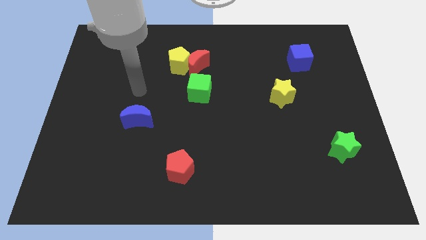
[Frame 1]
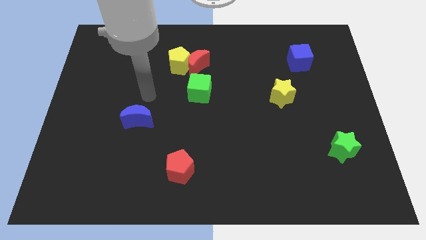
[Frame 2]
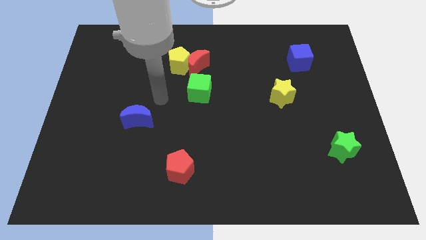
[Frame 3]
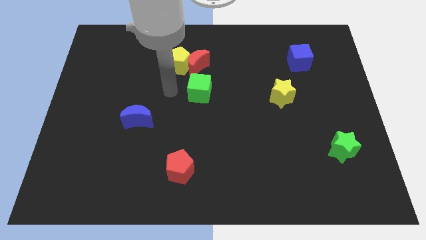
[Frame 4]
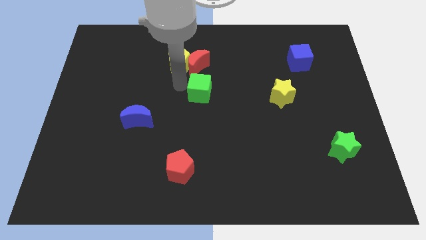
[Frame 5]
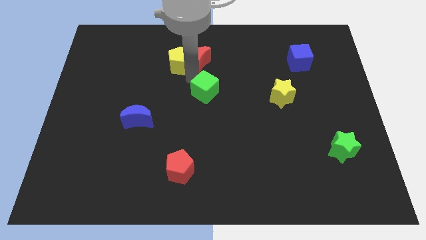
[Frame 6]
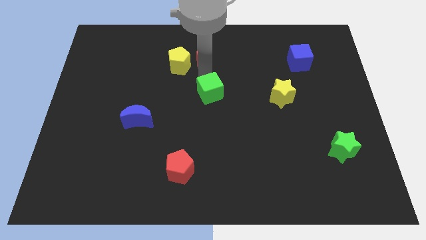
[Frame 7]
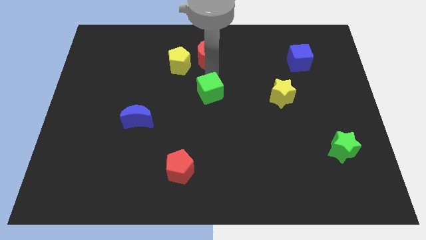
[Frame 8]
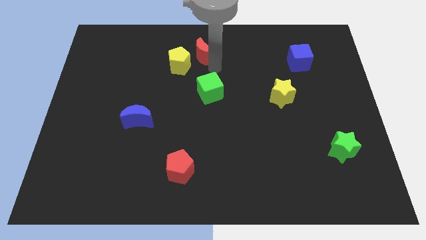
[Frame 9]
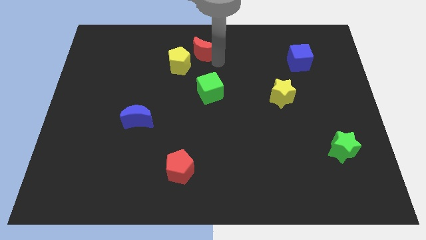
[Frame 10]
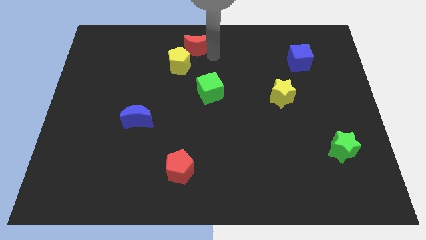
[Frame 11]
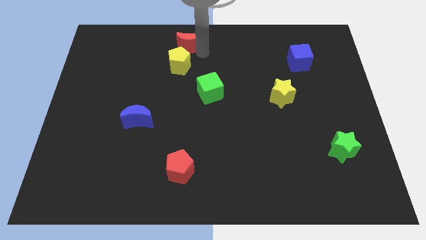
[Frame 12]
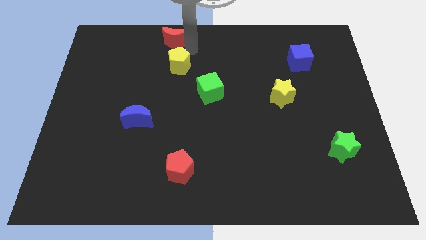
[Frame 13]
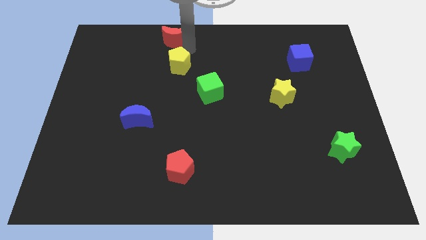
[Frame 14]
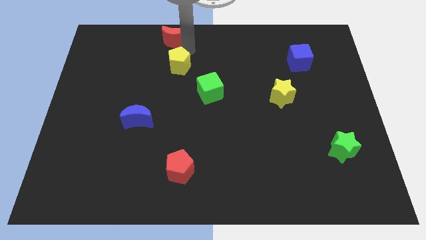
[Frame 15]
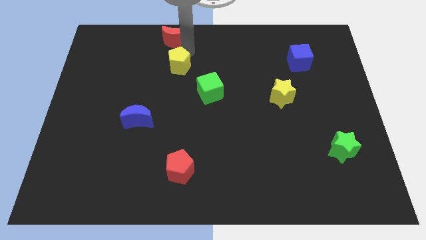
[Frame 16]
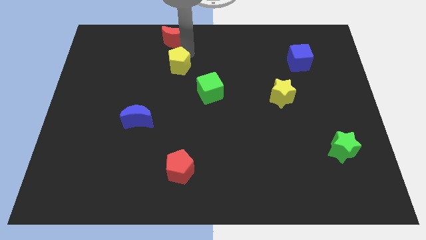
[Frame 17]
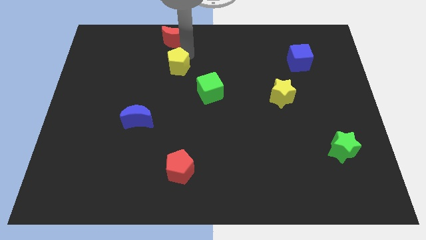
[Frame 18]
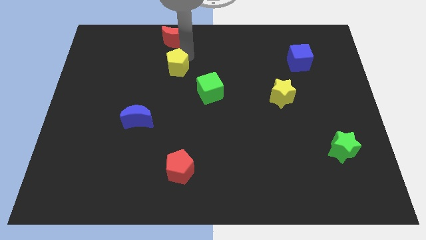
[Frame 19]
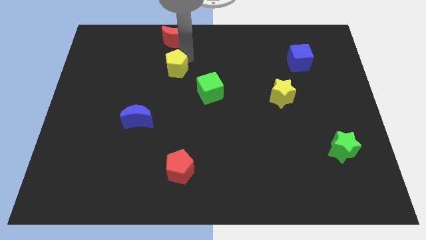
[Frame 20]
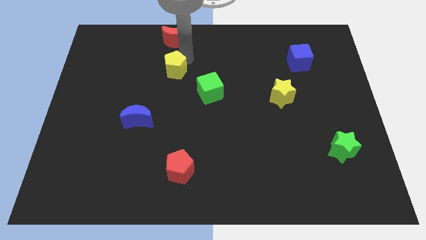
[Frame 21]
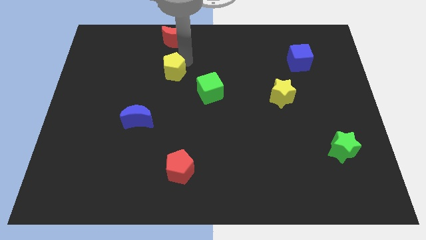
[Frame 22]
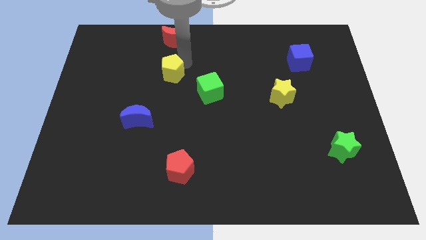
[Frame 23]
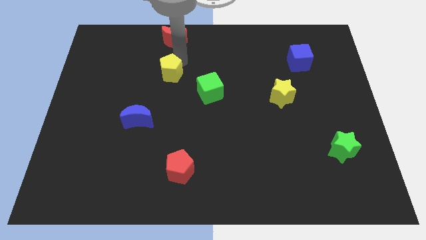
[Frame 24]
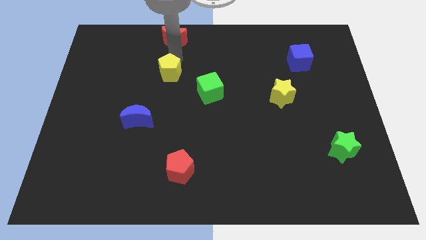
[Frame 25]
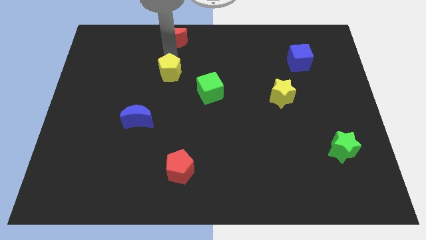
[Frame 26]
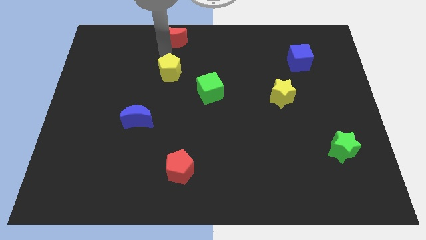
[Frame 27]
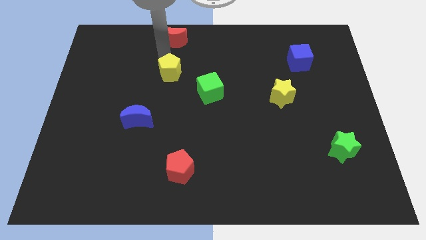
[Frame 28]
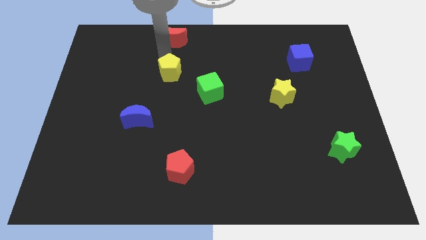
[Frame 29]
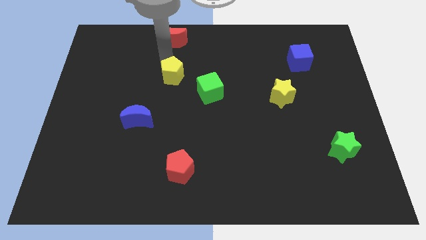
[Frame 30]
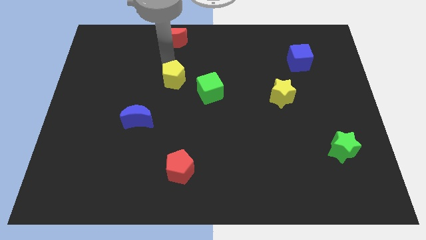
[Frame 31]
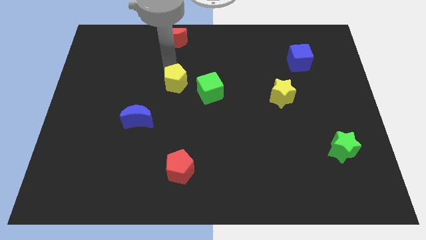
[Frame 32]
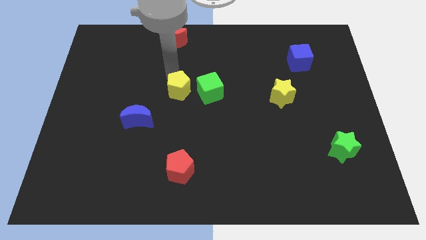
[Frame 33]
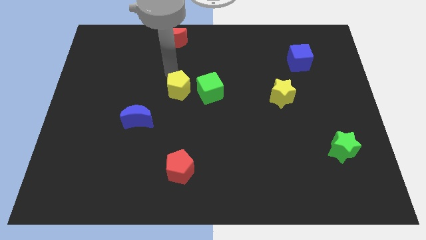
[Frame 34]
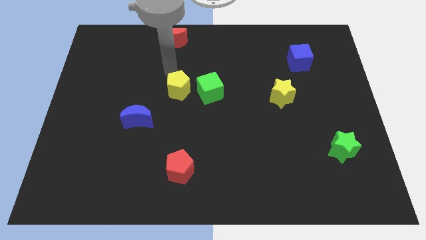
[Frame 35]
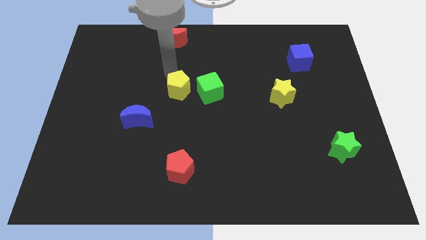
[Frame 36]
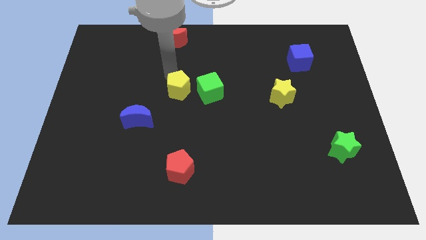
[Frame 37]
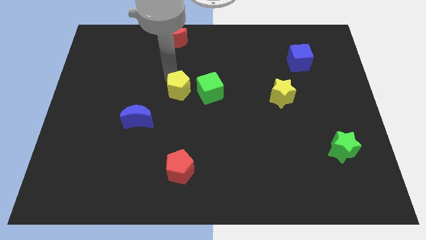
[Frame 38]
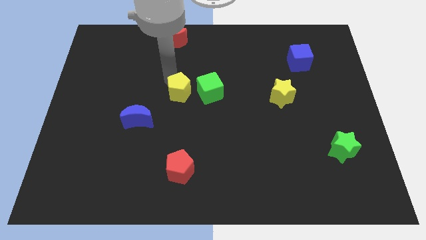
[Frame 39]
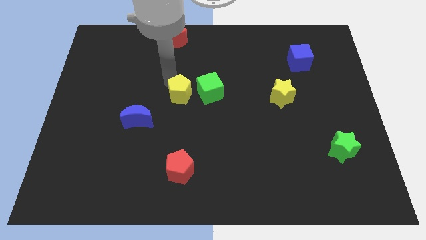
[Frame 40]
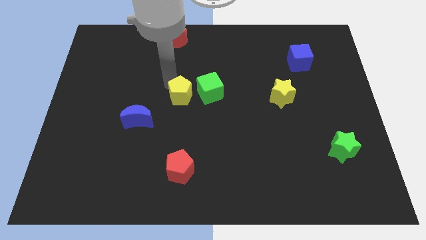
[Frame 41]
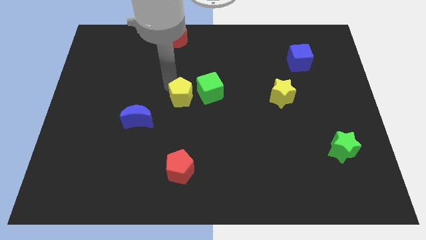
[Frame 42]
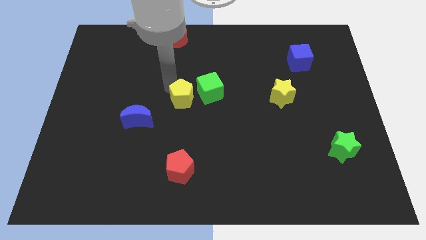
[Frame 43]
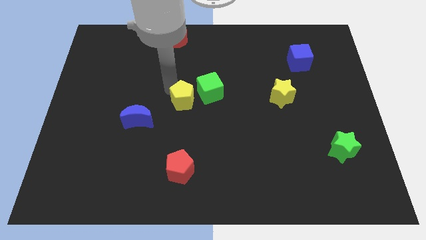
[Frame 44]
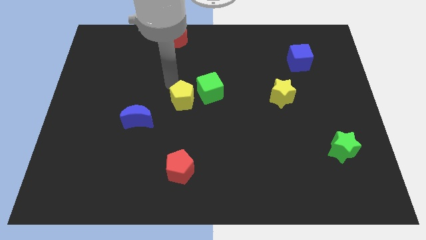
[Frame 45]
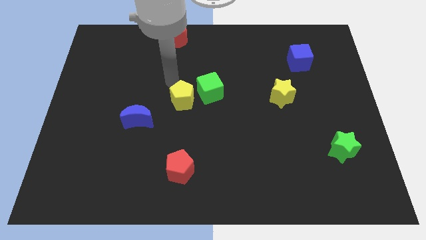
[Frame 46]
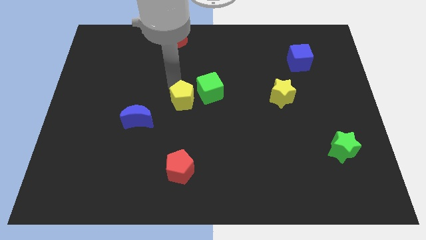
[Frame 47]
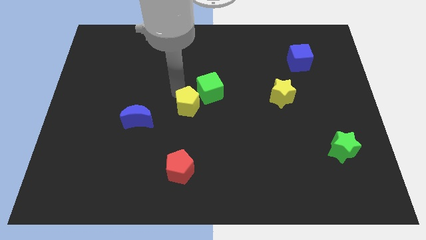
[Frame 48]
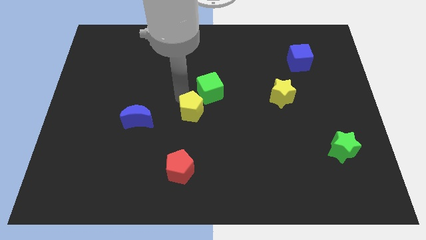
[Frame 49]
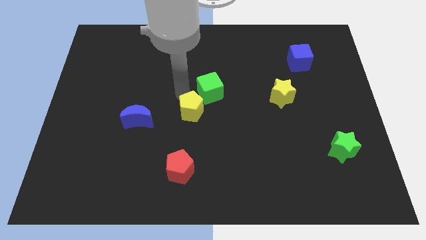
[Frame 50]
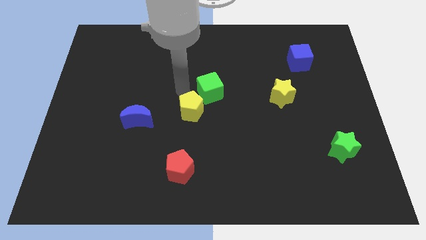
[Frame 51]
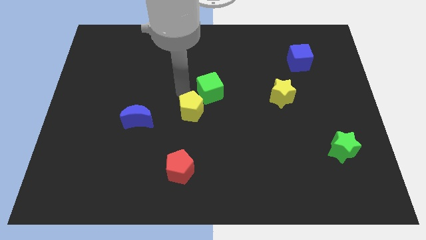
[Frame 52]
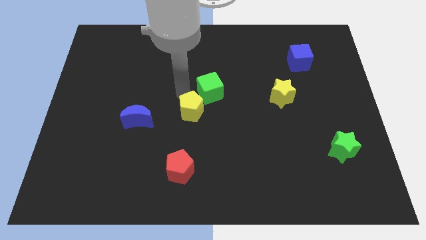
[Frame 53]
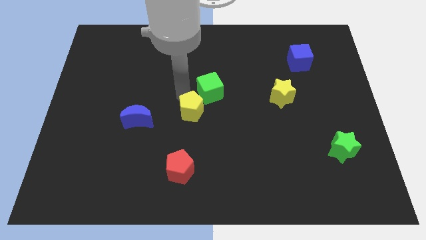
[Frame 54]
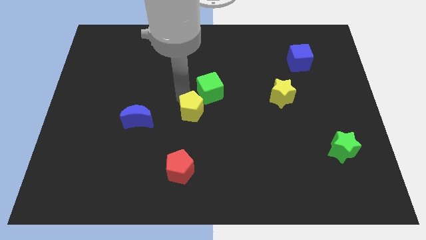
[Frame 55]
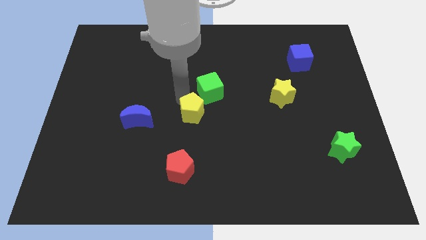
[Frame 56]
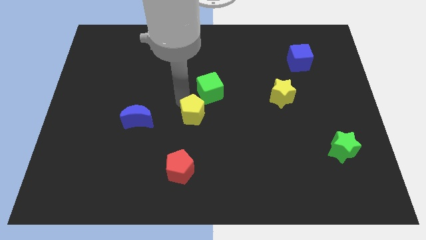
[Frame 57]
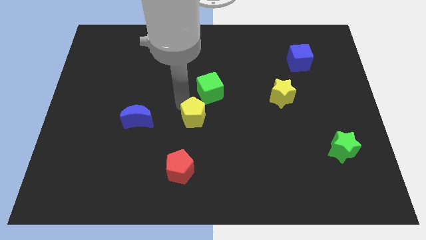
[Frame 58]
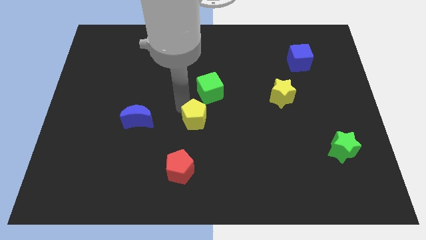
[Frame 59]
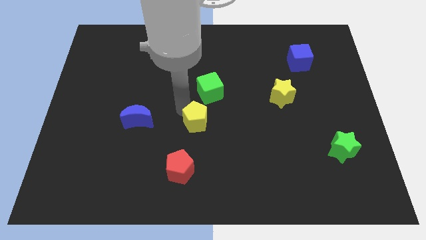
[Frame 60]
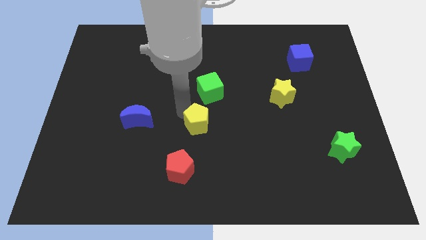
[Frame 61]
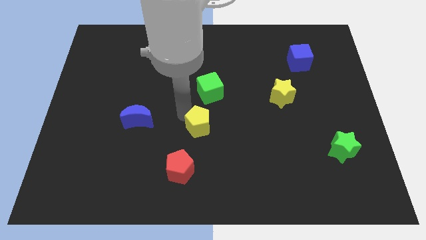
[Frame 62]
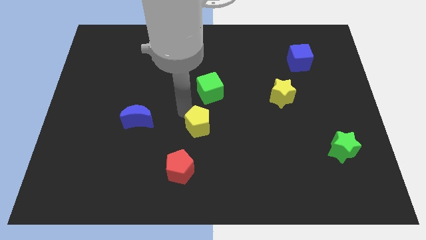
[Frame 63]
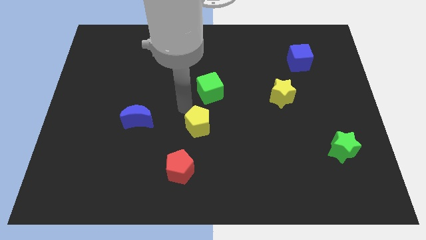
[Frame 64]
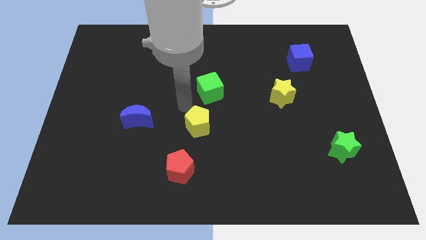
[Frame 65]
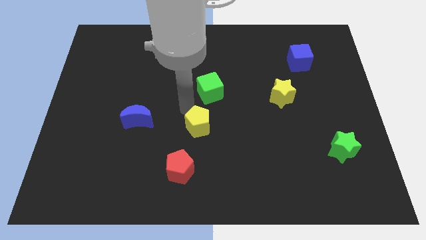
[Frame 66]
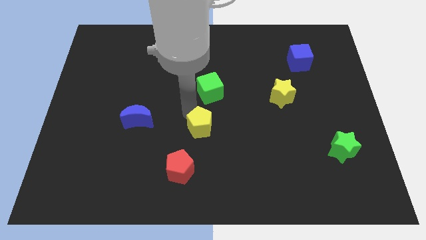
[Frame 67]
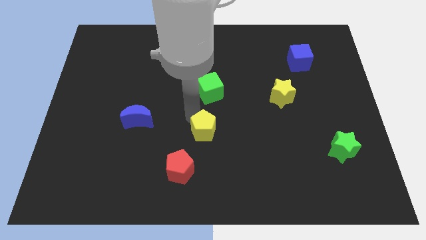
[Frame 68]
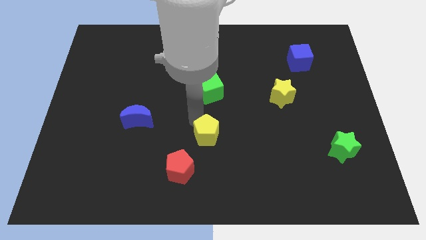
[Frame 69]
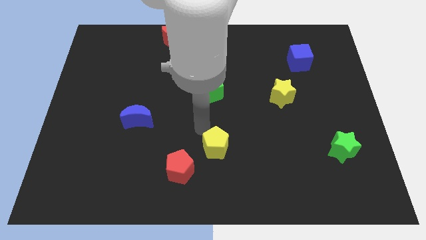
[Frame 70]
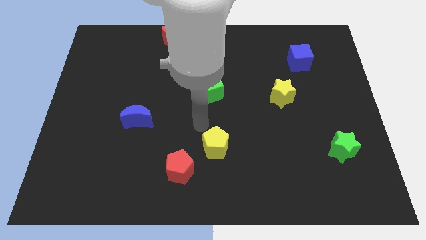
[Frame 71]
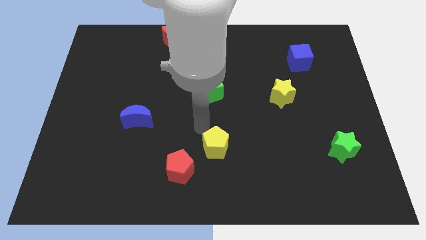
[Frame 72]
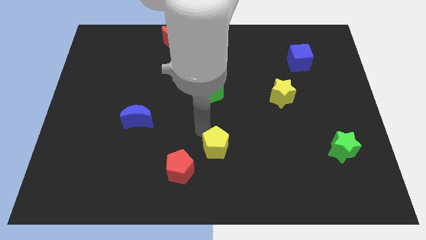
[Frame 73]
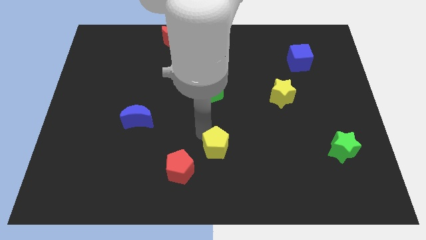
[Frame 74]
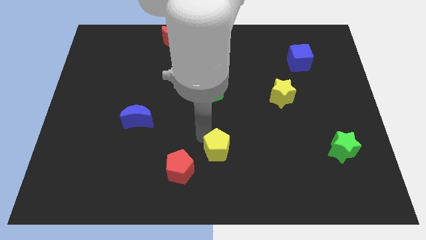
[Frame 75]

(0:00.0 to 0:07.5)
push the yellow pentagon to the right side of the red pentagon
